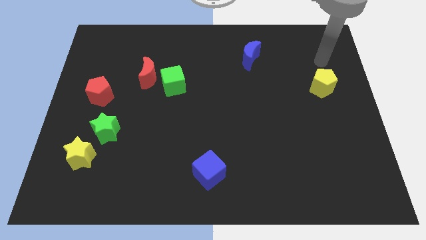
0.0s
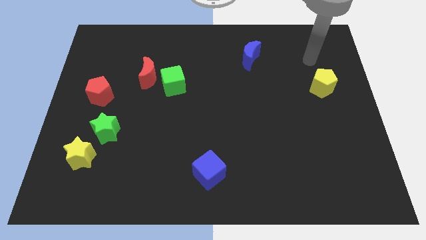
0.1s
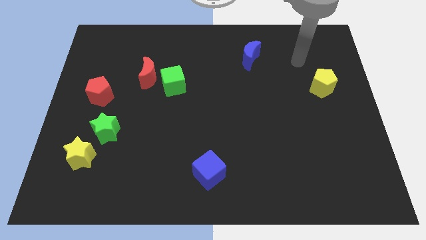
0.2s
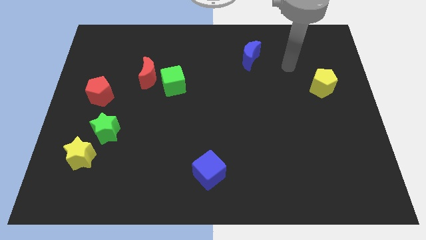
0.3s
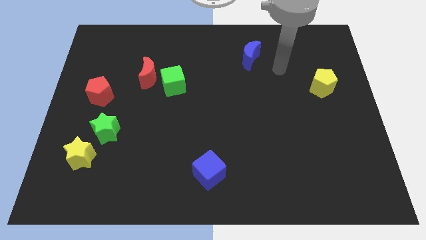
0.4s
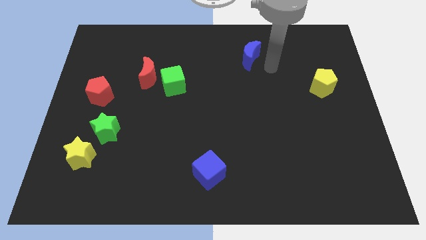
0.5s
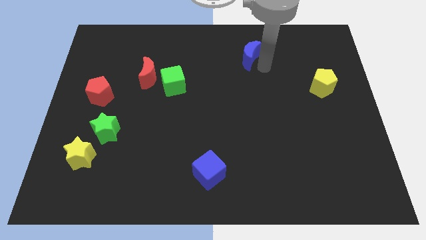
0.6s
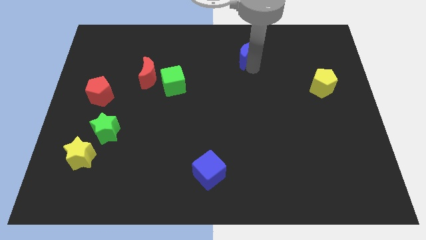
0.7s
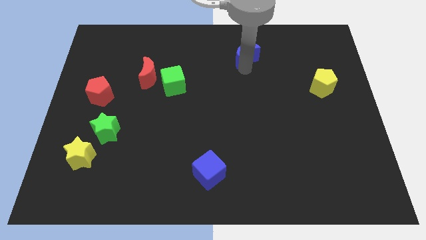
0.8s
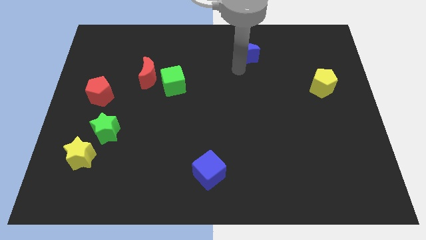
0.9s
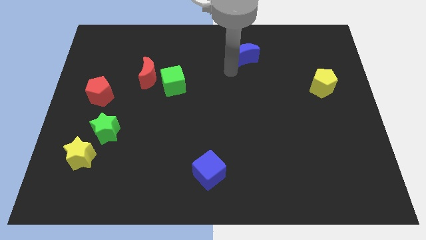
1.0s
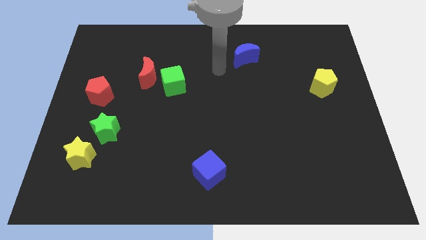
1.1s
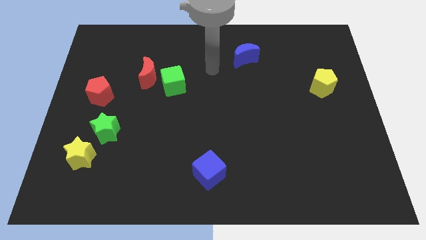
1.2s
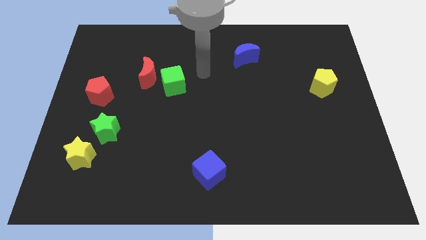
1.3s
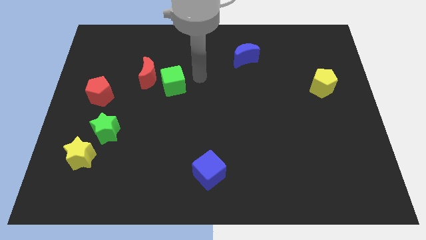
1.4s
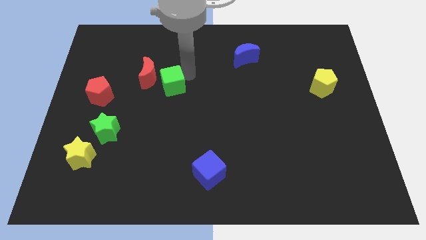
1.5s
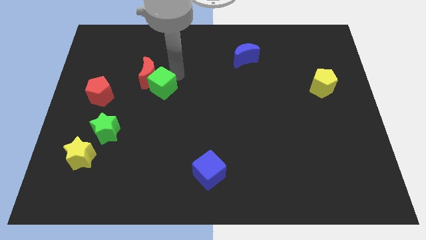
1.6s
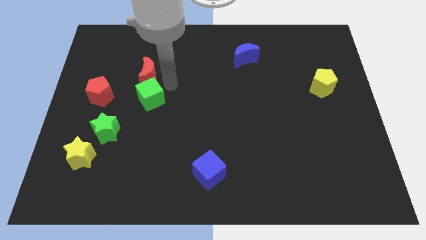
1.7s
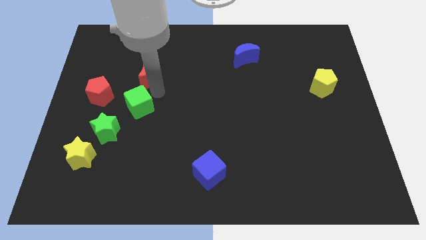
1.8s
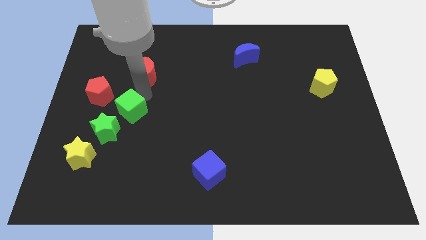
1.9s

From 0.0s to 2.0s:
move the red moon away from the green cube

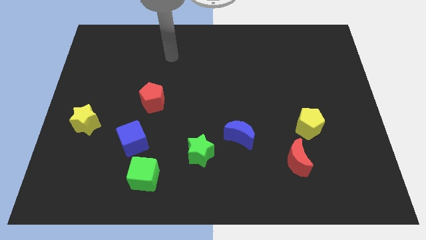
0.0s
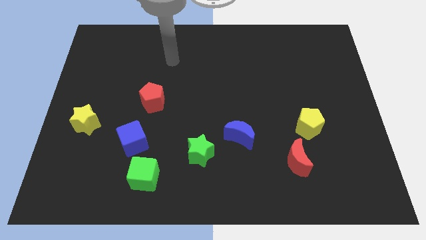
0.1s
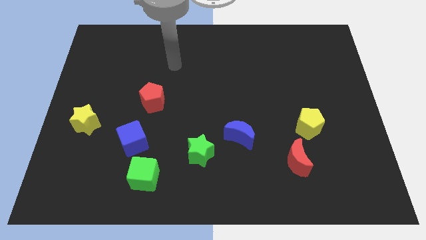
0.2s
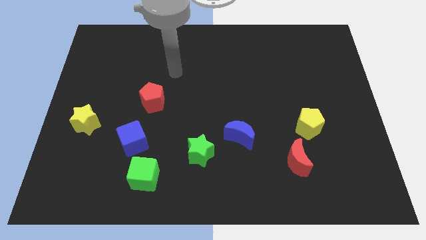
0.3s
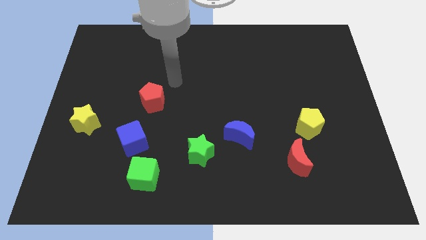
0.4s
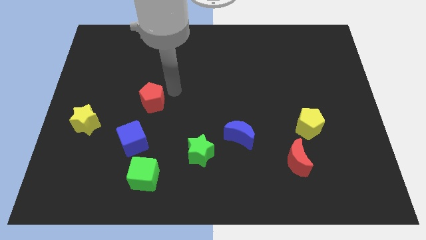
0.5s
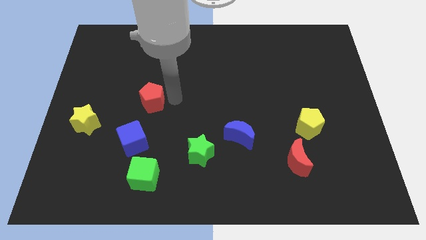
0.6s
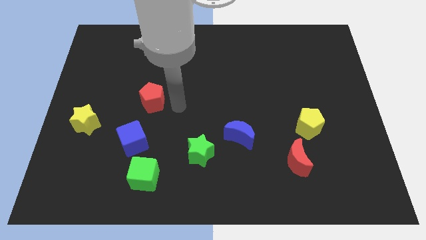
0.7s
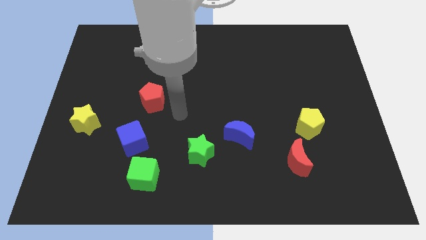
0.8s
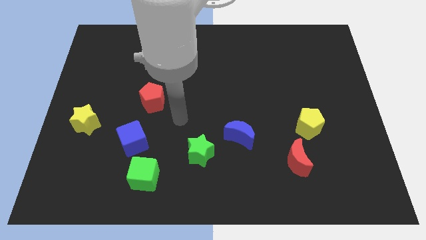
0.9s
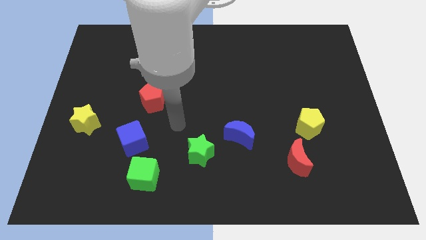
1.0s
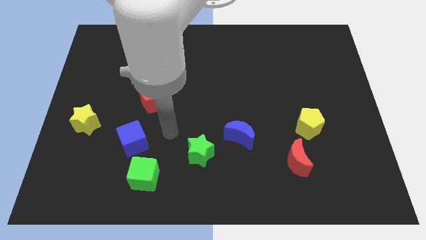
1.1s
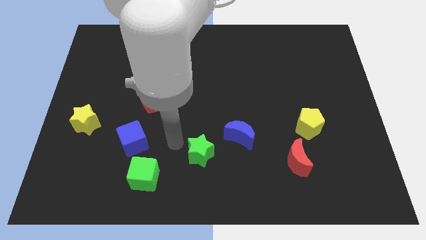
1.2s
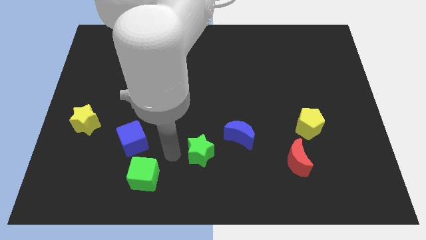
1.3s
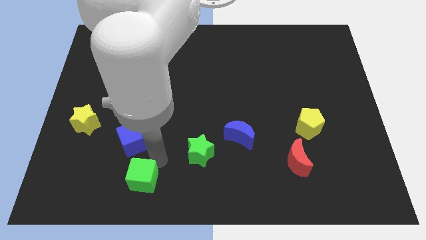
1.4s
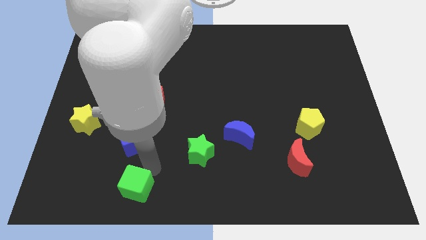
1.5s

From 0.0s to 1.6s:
pull the blue cube apart from the green cube

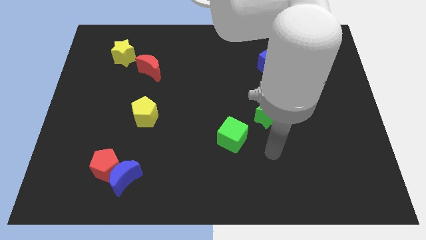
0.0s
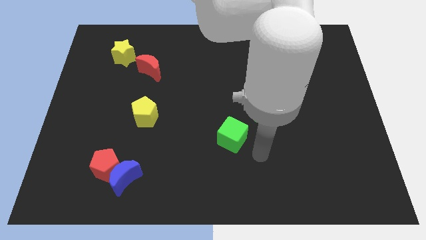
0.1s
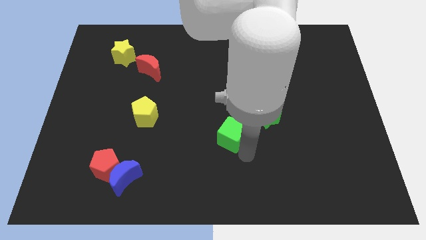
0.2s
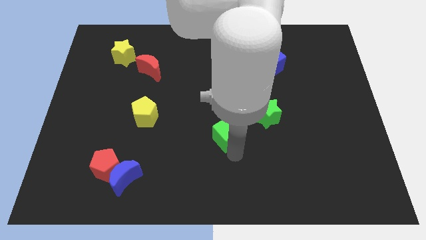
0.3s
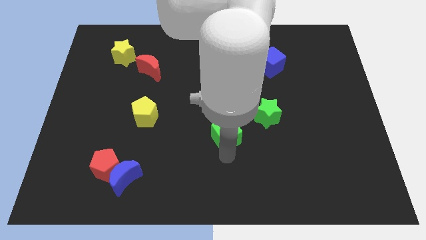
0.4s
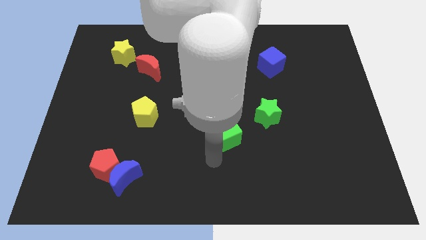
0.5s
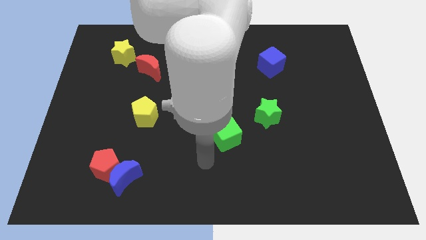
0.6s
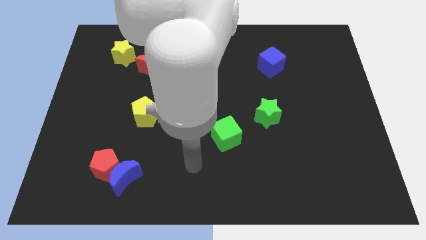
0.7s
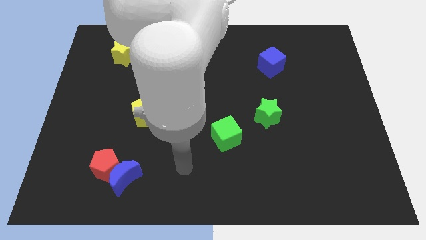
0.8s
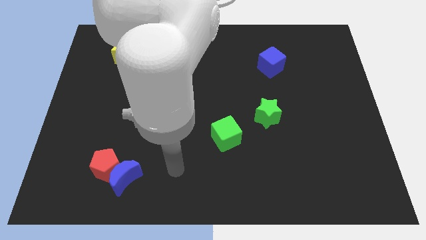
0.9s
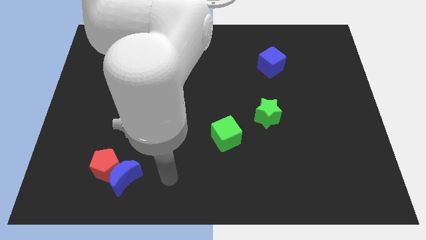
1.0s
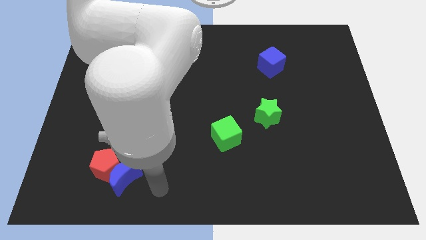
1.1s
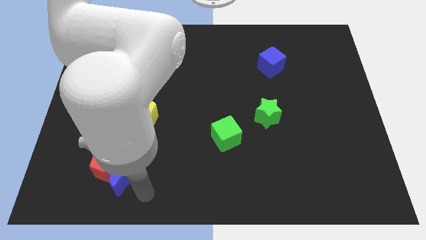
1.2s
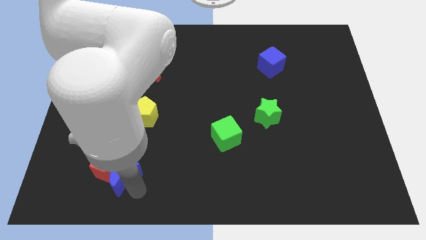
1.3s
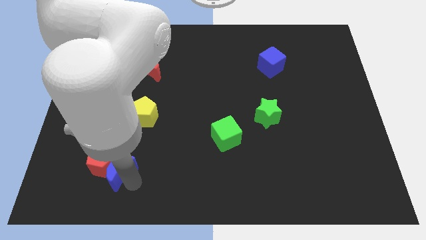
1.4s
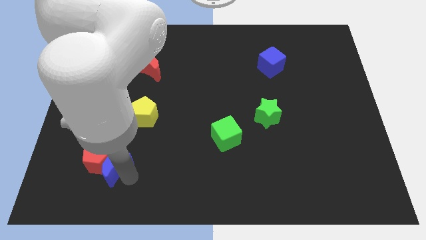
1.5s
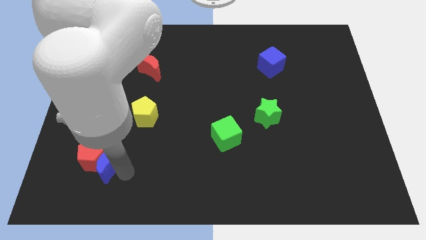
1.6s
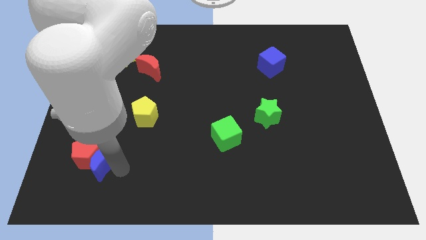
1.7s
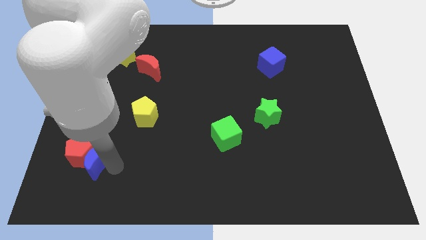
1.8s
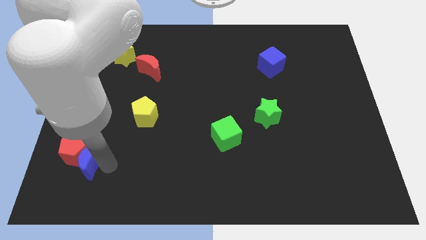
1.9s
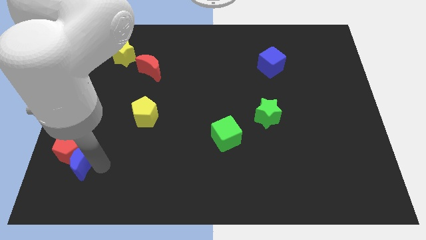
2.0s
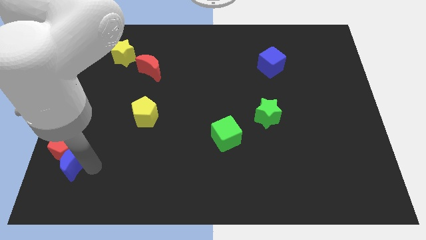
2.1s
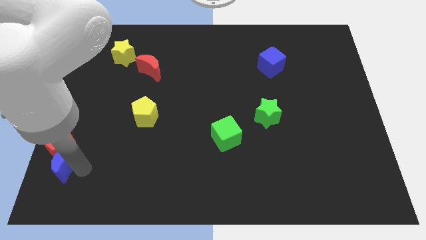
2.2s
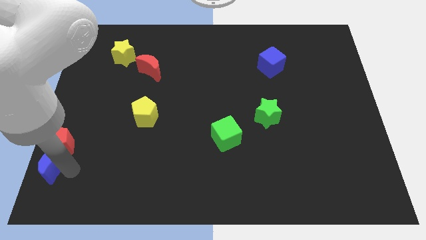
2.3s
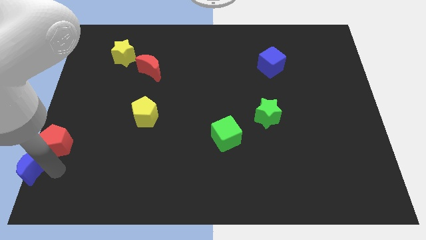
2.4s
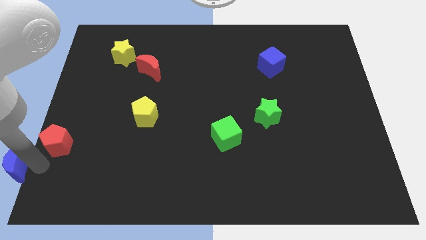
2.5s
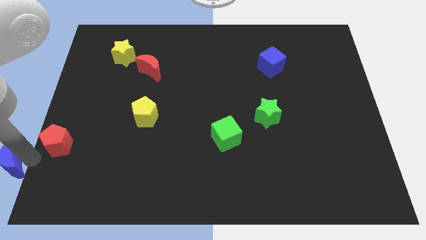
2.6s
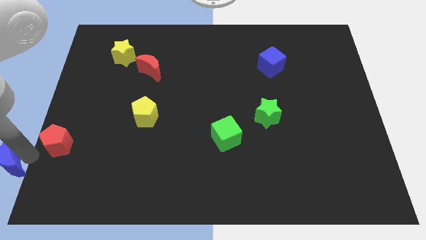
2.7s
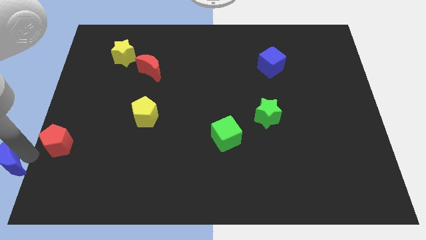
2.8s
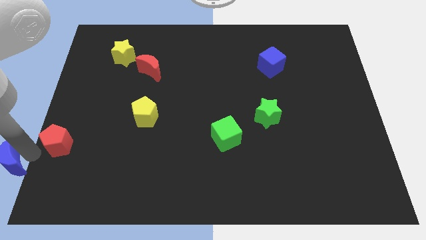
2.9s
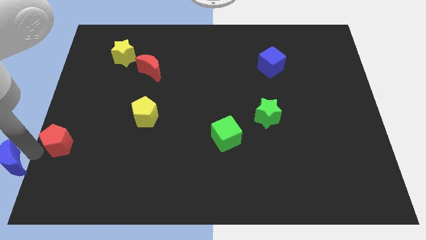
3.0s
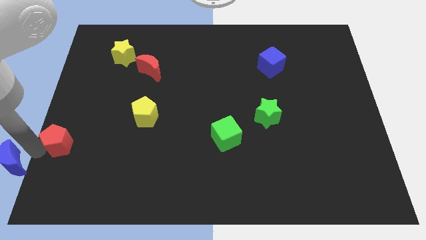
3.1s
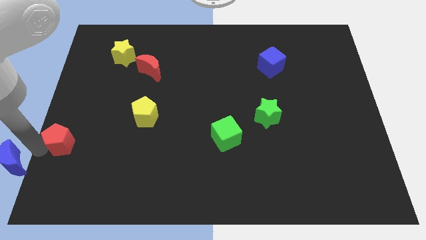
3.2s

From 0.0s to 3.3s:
separate the red pentagon from the blue moon

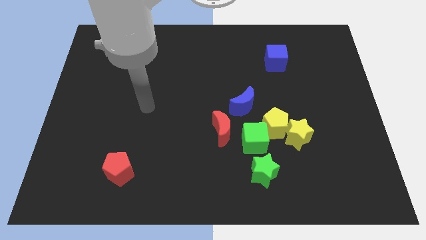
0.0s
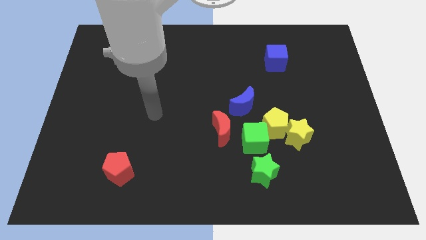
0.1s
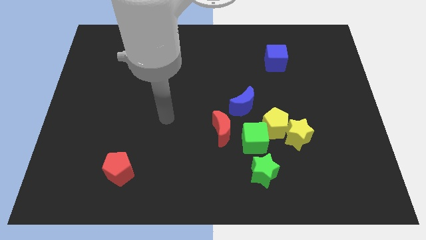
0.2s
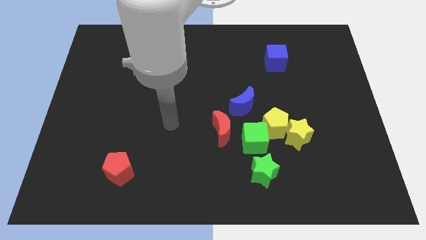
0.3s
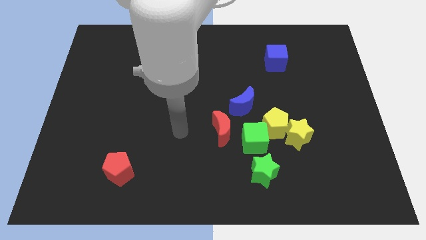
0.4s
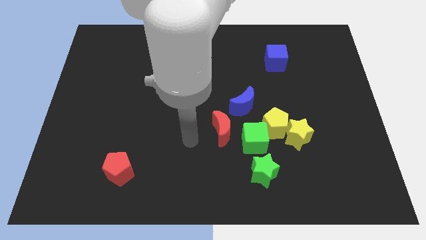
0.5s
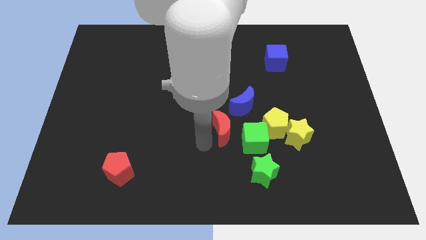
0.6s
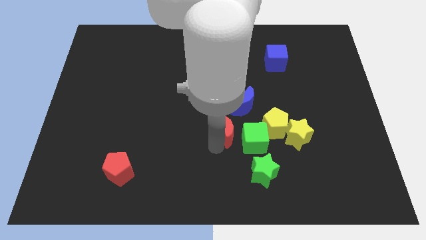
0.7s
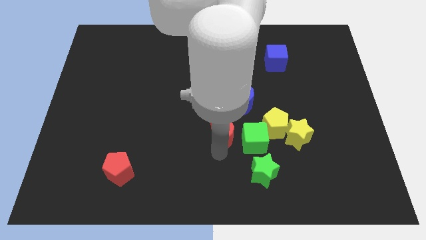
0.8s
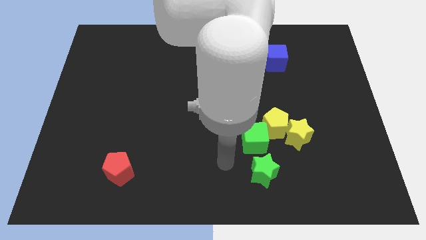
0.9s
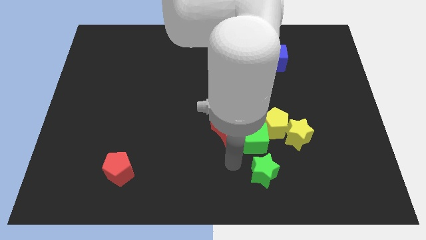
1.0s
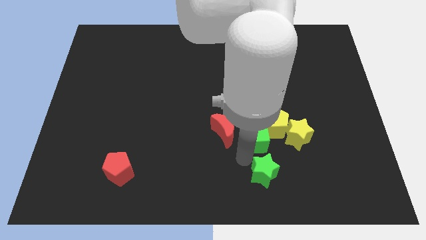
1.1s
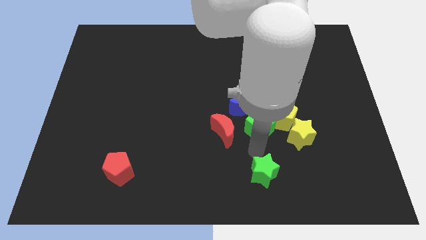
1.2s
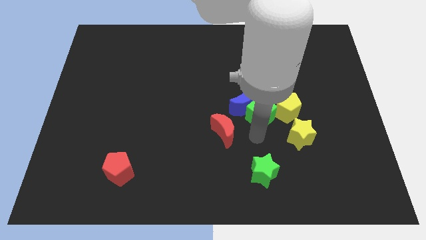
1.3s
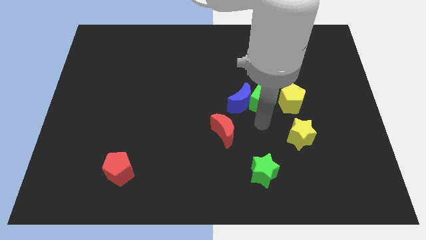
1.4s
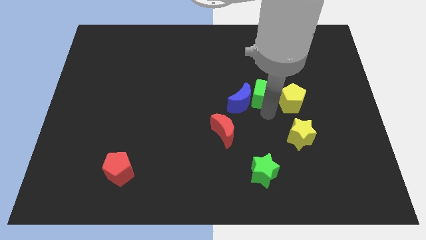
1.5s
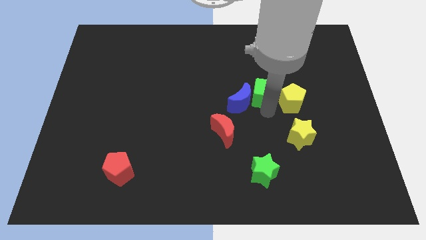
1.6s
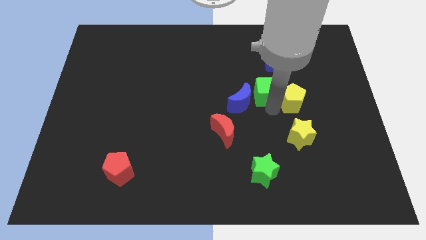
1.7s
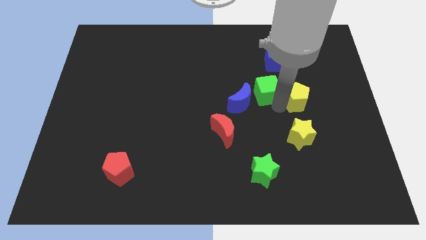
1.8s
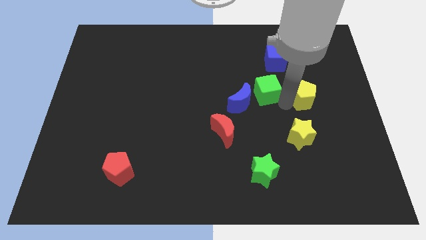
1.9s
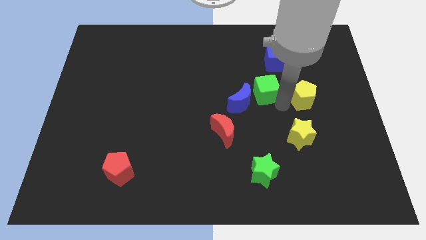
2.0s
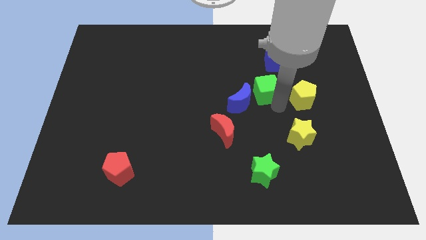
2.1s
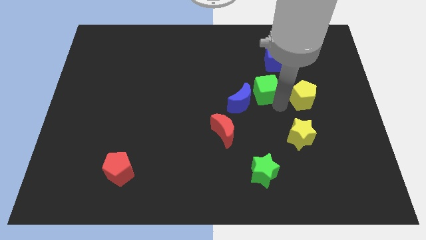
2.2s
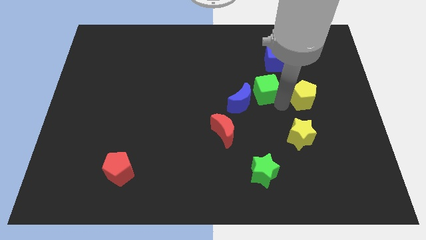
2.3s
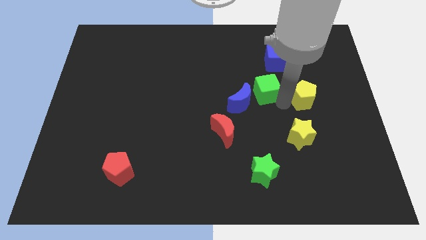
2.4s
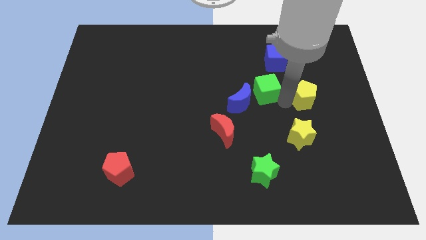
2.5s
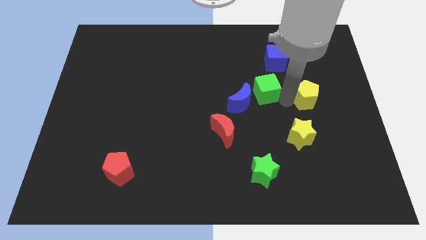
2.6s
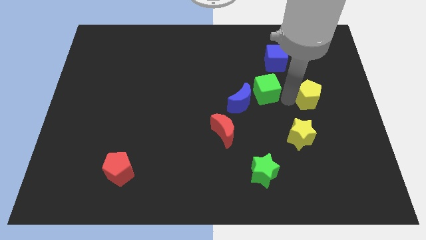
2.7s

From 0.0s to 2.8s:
separate the yellow pentagon from the yellow star, green cube, and blue moon
